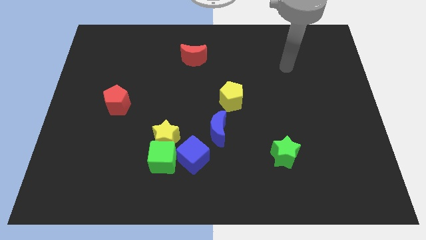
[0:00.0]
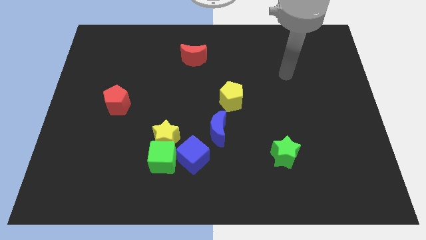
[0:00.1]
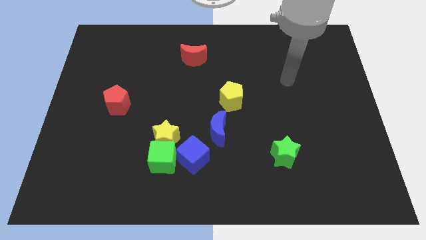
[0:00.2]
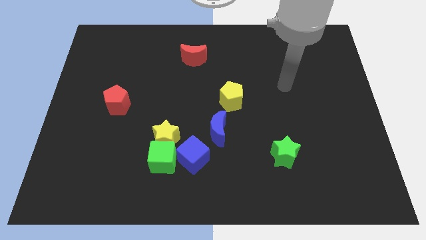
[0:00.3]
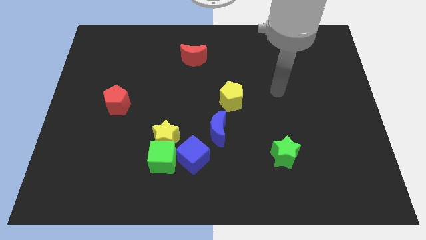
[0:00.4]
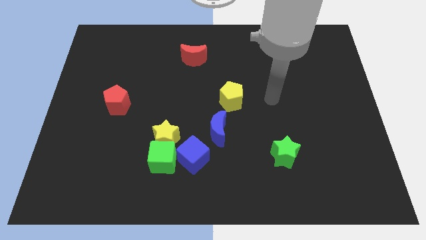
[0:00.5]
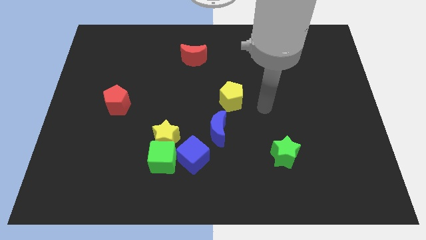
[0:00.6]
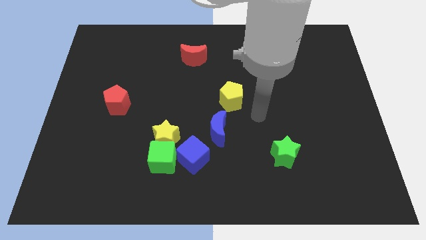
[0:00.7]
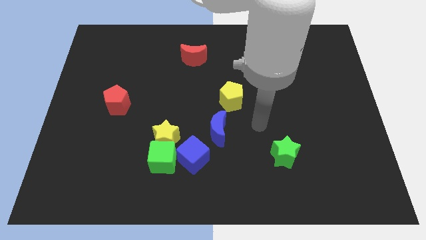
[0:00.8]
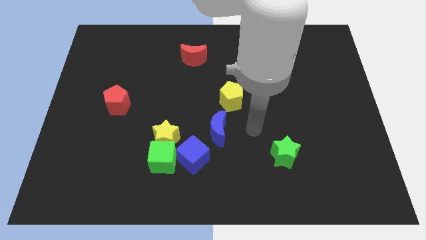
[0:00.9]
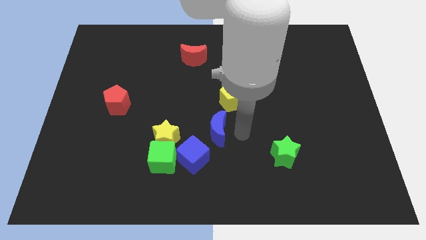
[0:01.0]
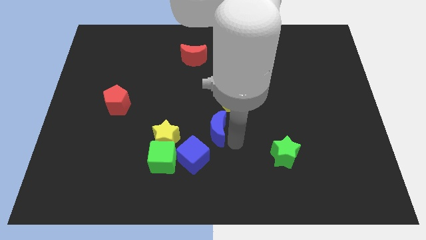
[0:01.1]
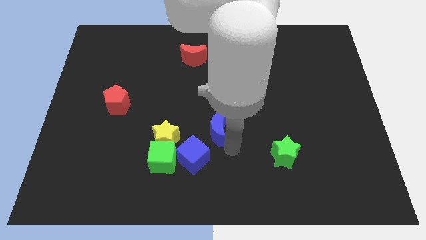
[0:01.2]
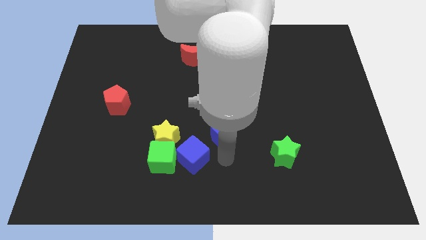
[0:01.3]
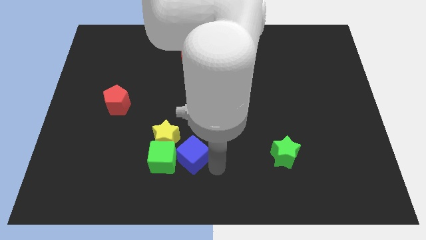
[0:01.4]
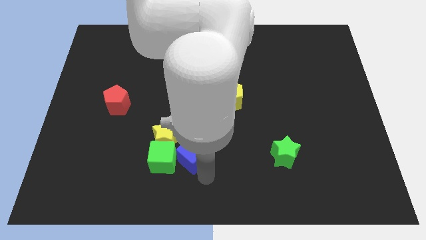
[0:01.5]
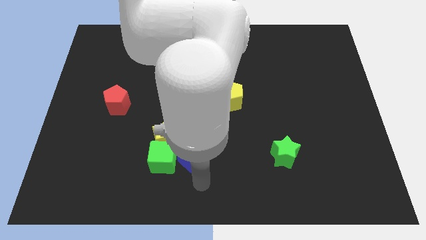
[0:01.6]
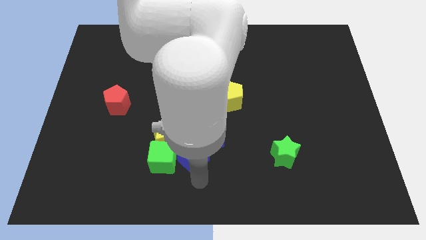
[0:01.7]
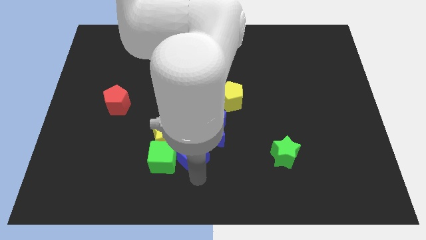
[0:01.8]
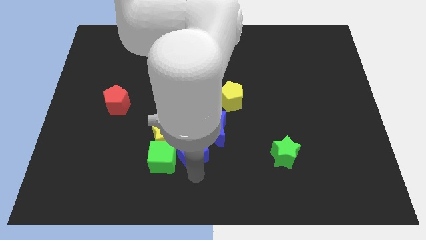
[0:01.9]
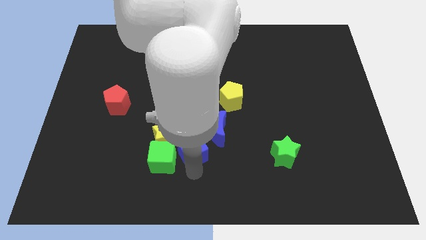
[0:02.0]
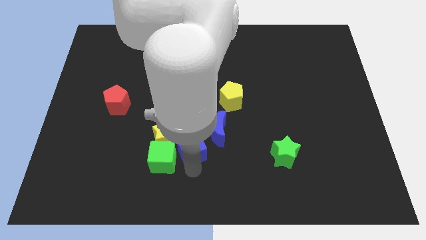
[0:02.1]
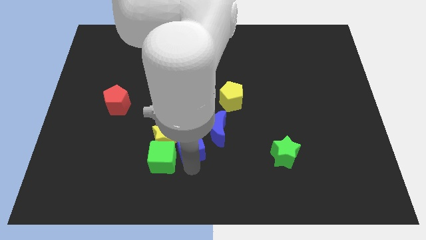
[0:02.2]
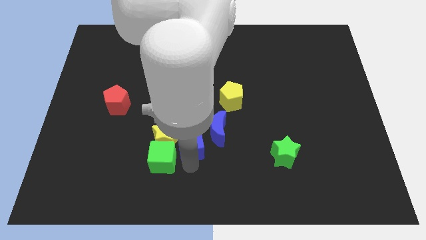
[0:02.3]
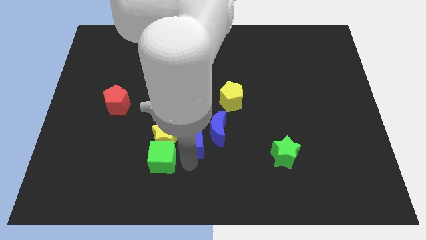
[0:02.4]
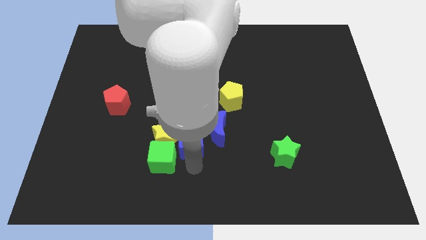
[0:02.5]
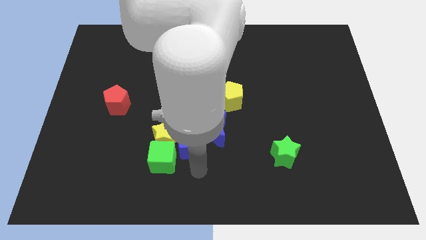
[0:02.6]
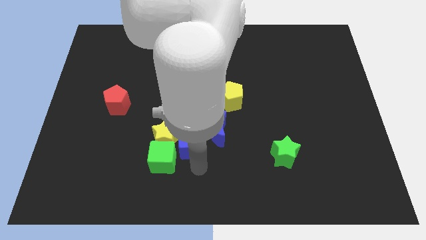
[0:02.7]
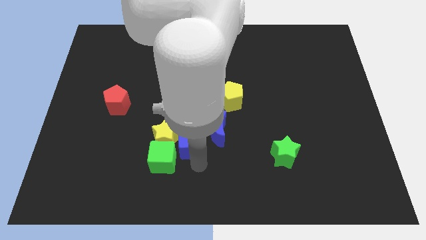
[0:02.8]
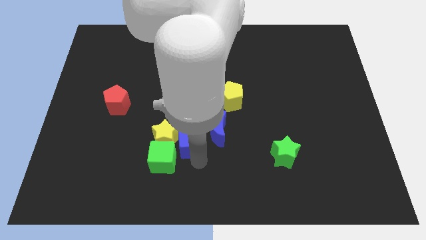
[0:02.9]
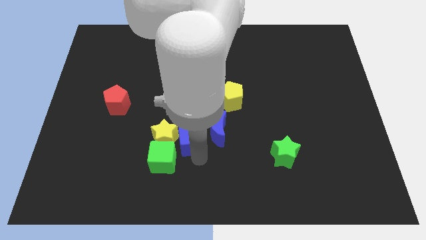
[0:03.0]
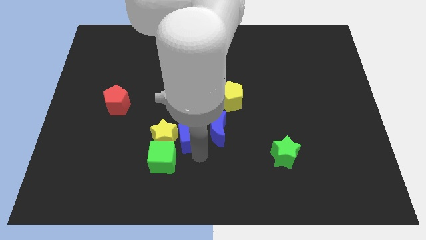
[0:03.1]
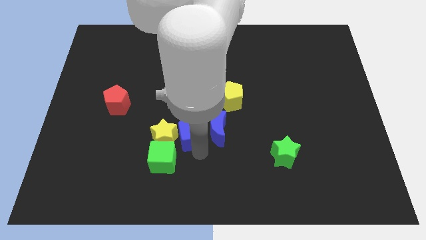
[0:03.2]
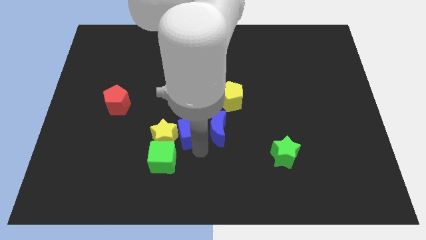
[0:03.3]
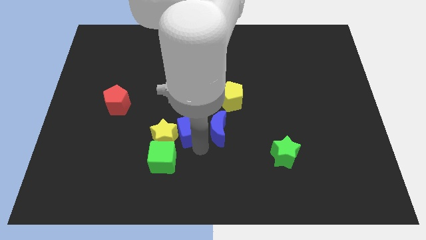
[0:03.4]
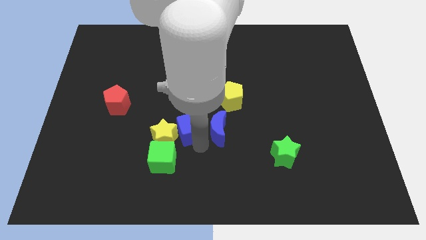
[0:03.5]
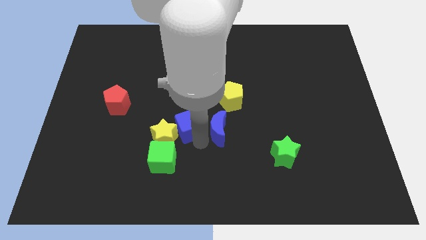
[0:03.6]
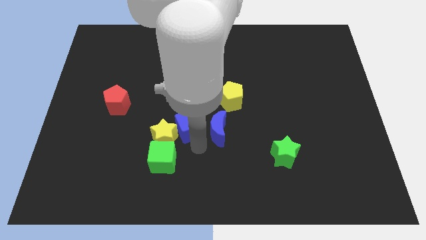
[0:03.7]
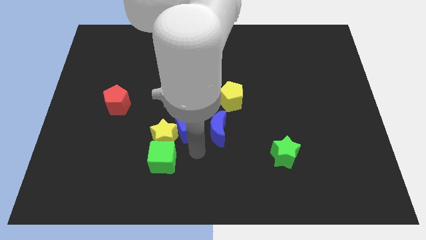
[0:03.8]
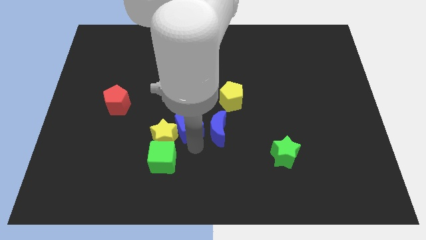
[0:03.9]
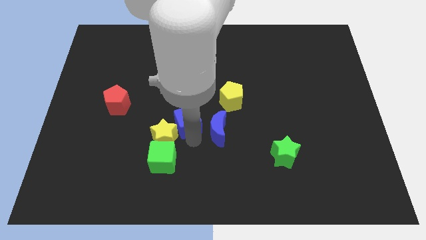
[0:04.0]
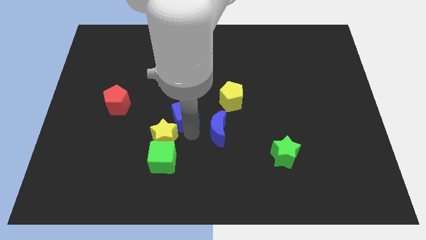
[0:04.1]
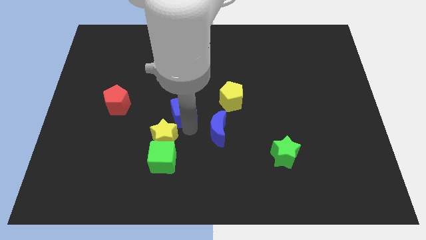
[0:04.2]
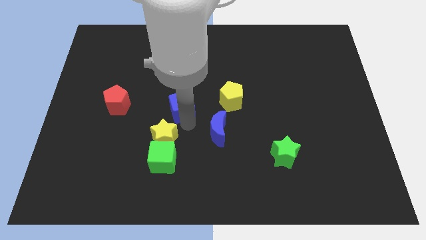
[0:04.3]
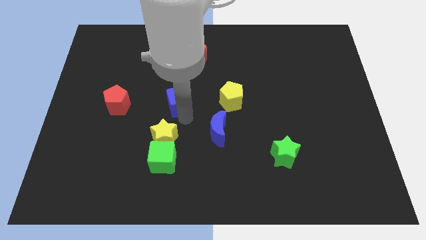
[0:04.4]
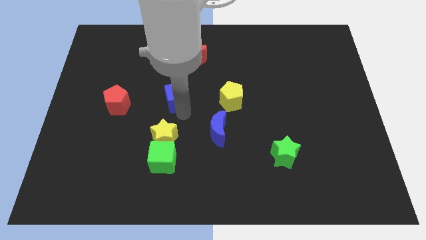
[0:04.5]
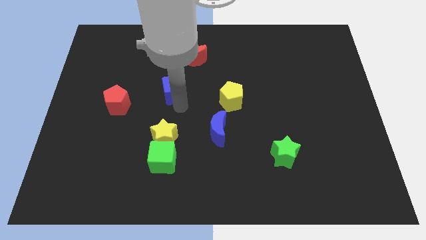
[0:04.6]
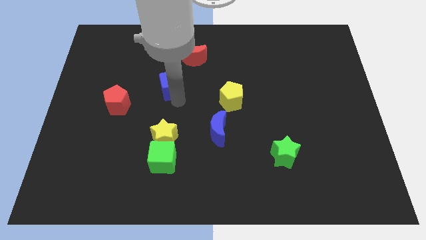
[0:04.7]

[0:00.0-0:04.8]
slide the blue cube to the bottom left of the red moon

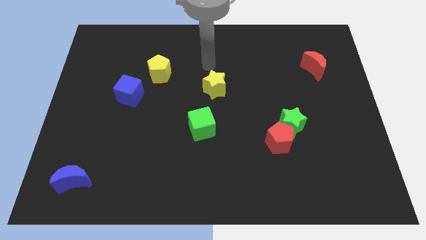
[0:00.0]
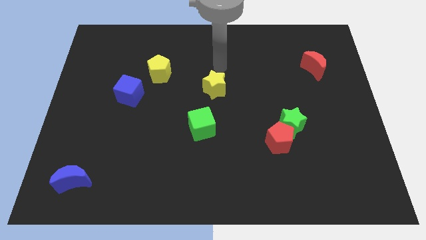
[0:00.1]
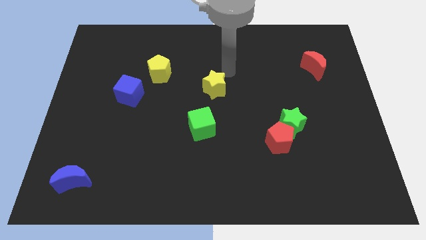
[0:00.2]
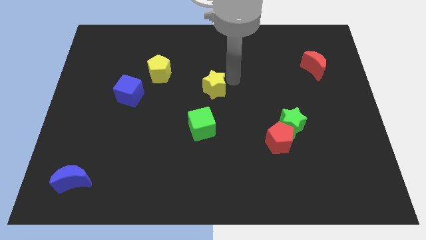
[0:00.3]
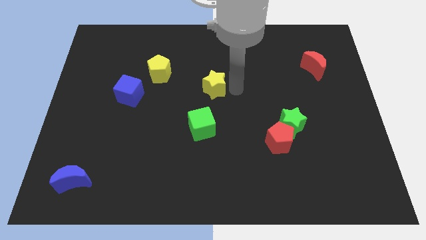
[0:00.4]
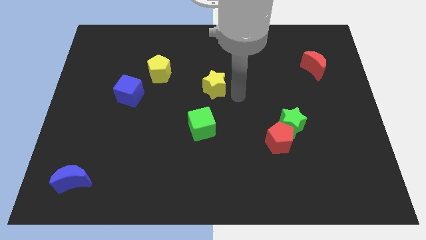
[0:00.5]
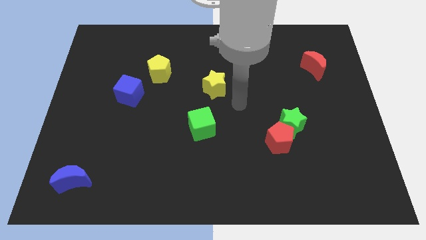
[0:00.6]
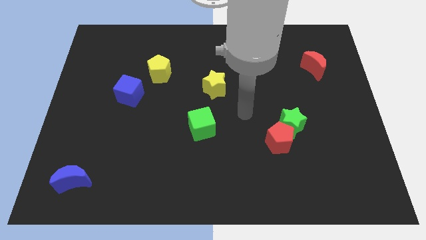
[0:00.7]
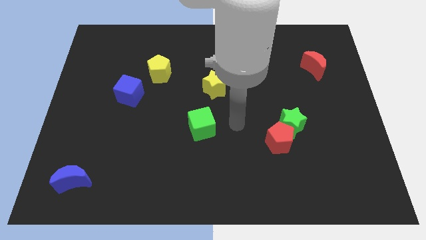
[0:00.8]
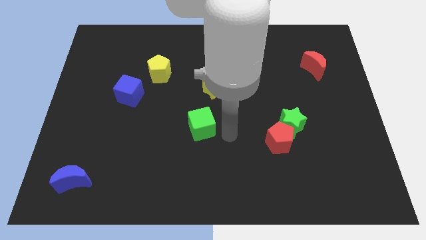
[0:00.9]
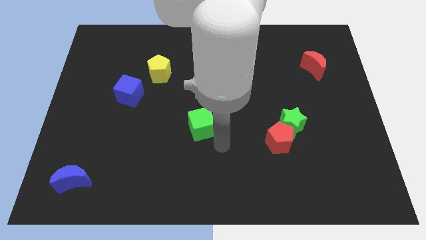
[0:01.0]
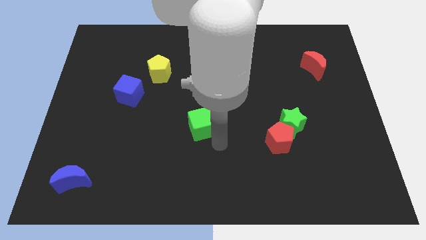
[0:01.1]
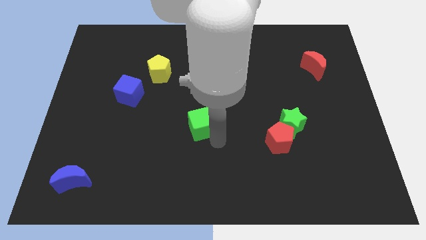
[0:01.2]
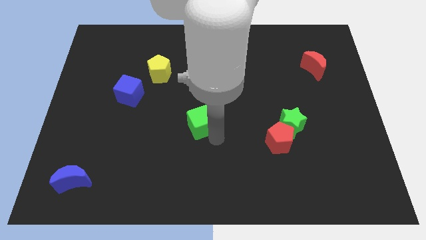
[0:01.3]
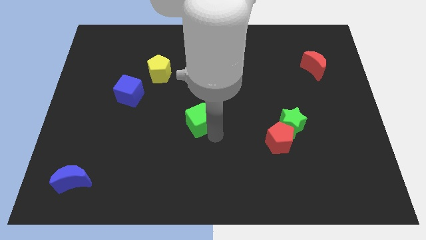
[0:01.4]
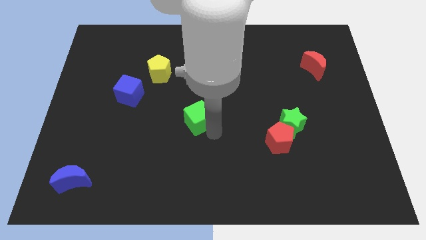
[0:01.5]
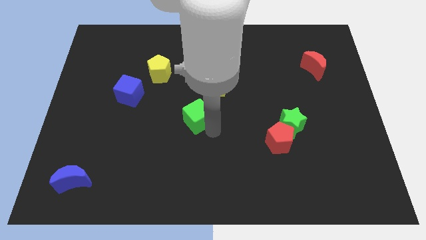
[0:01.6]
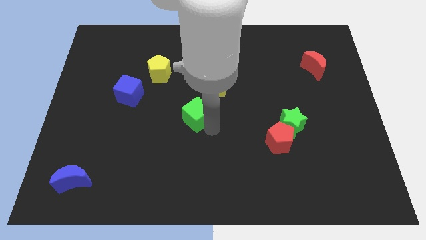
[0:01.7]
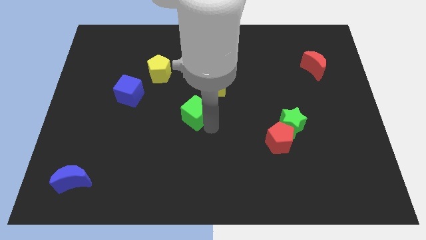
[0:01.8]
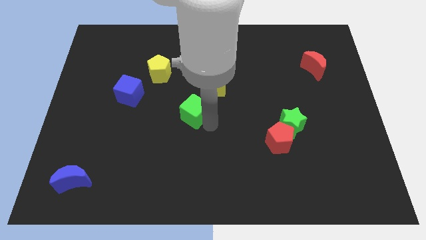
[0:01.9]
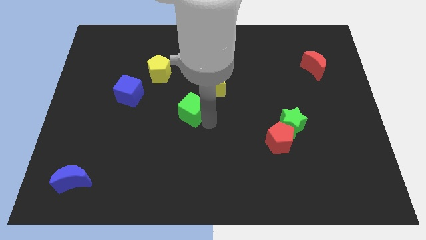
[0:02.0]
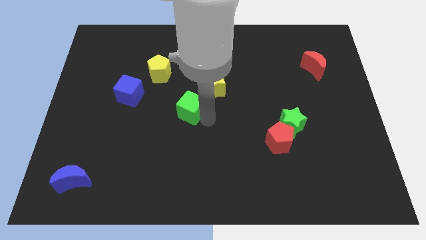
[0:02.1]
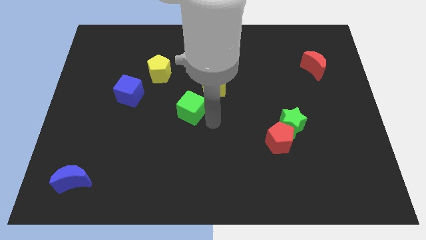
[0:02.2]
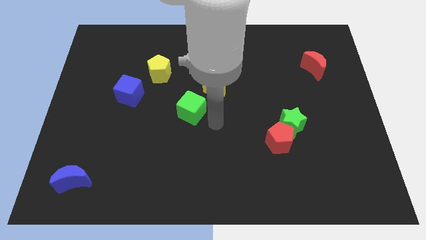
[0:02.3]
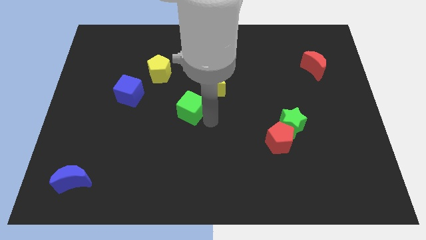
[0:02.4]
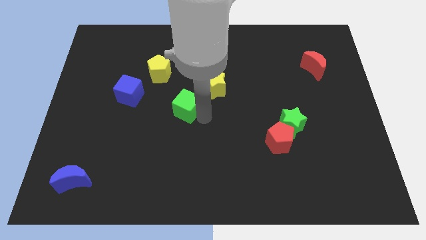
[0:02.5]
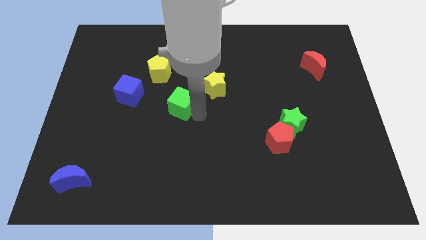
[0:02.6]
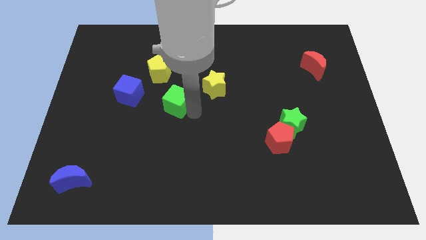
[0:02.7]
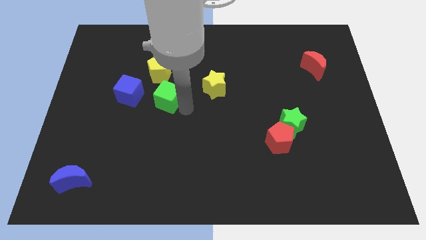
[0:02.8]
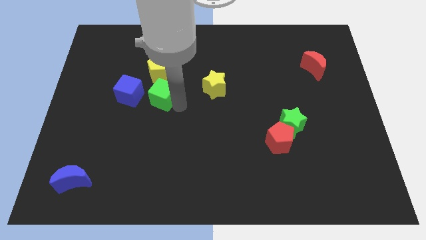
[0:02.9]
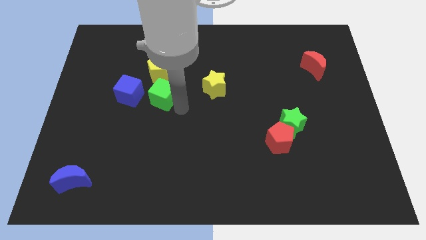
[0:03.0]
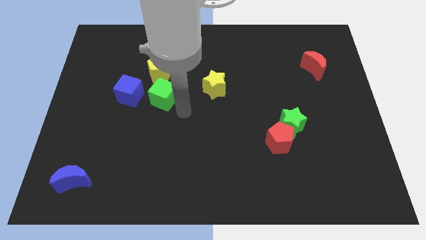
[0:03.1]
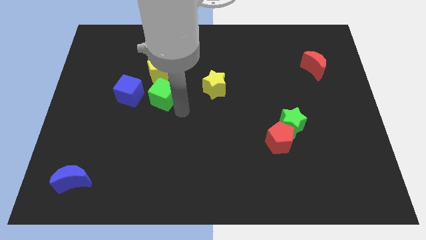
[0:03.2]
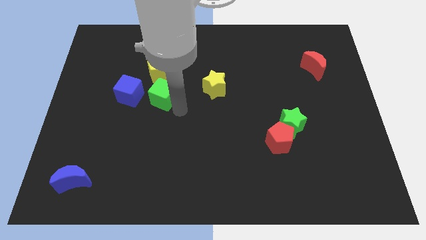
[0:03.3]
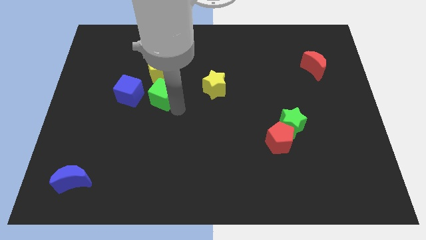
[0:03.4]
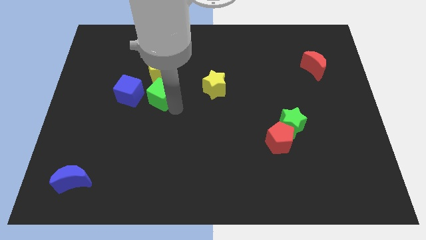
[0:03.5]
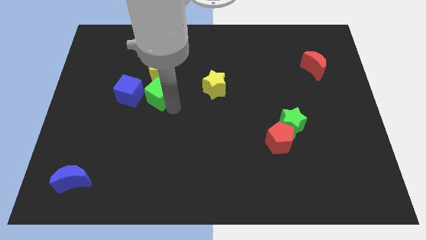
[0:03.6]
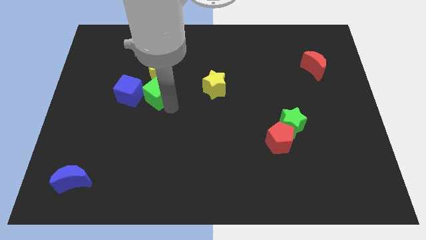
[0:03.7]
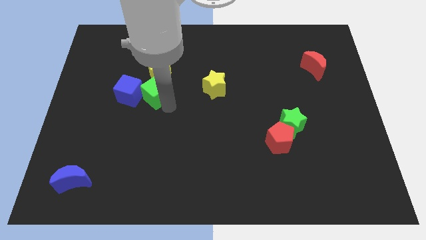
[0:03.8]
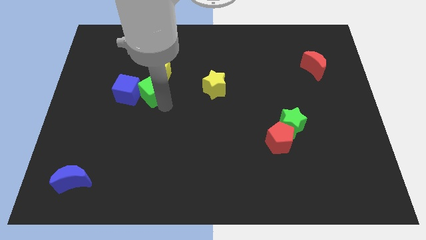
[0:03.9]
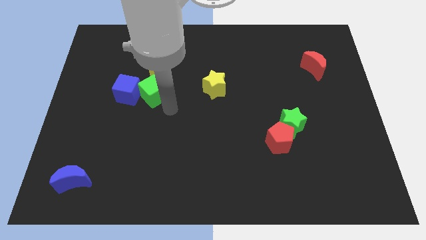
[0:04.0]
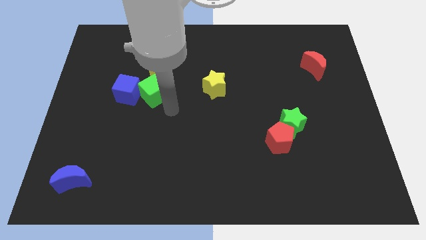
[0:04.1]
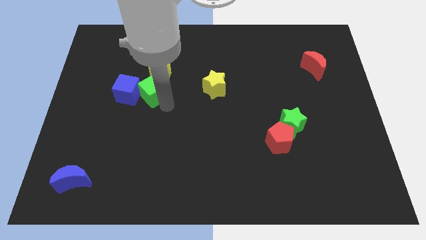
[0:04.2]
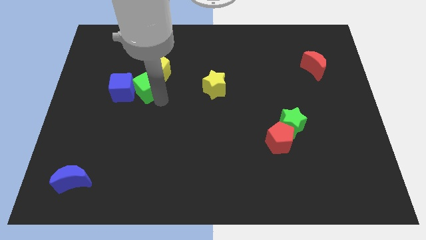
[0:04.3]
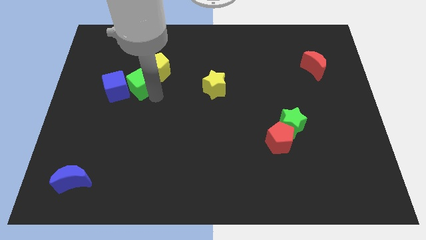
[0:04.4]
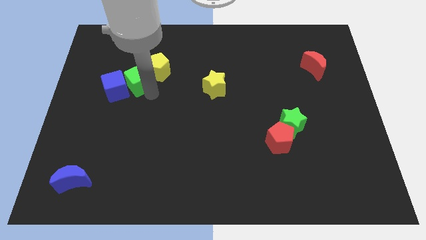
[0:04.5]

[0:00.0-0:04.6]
slide the green cube left of the yellow pentagon
